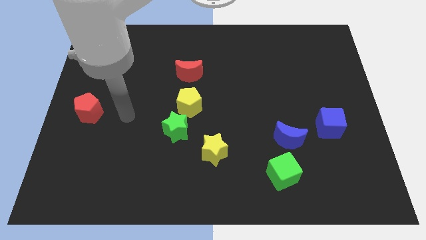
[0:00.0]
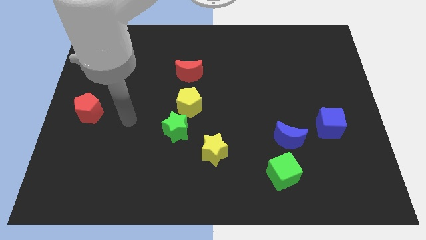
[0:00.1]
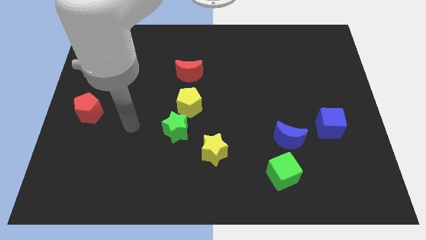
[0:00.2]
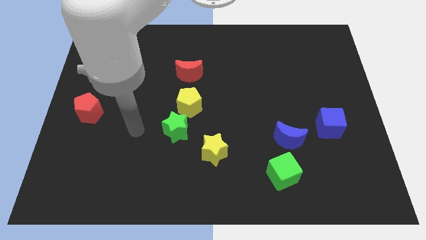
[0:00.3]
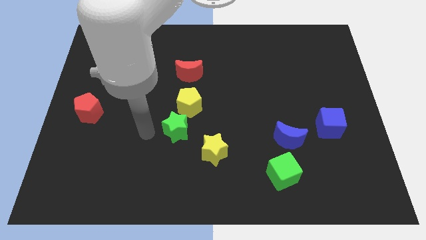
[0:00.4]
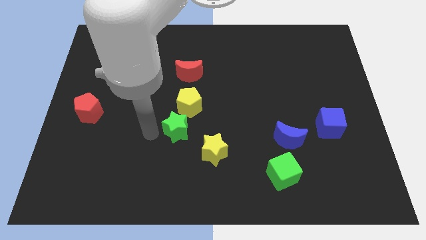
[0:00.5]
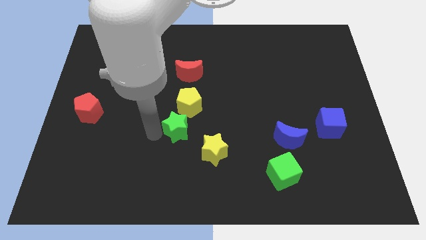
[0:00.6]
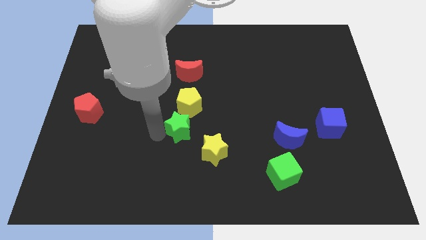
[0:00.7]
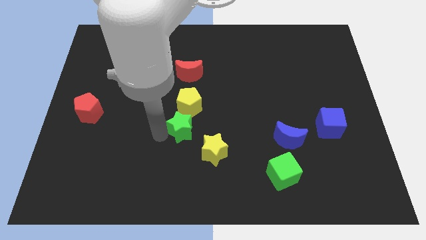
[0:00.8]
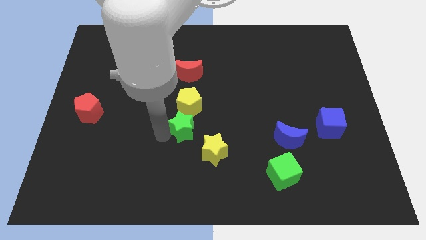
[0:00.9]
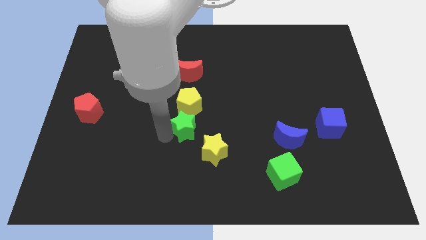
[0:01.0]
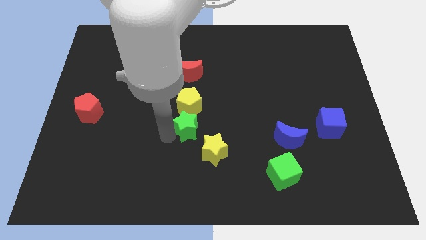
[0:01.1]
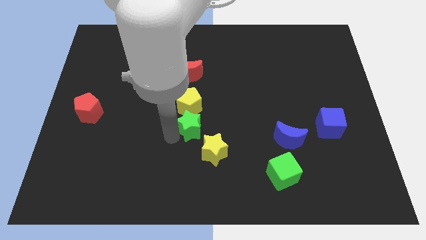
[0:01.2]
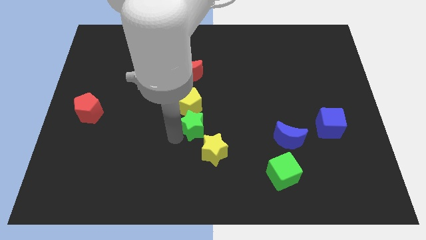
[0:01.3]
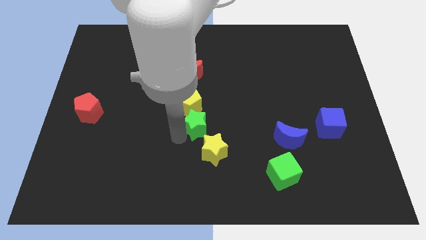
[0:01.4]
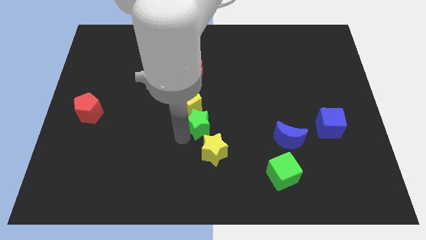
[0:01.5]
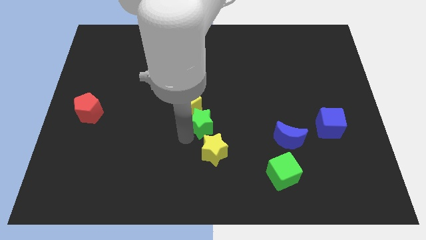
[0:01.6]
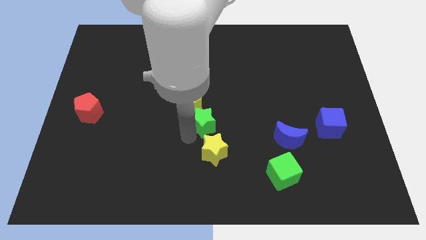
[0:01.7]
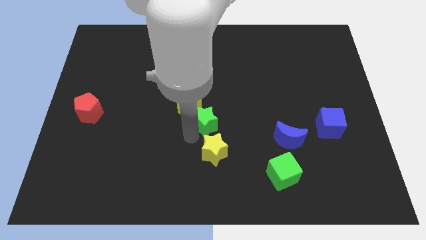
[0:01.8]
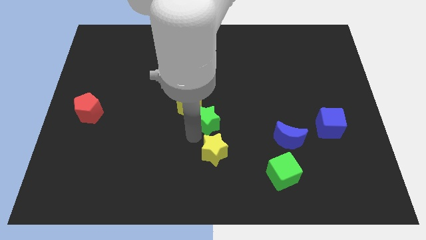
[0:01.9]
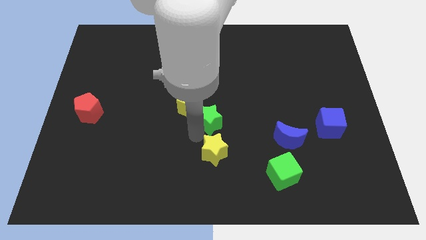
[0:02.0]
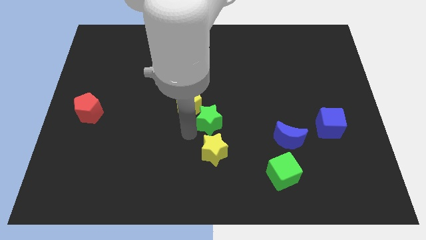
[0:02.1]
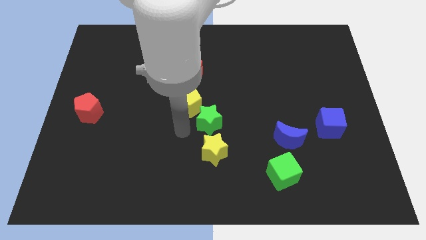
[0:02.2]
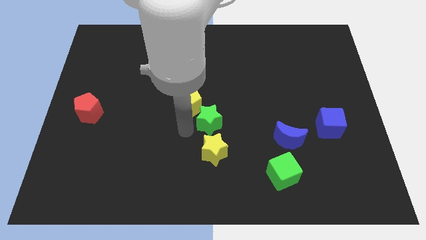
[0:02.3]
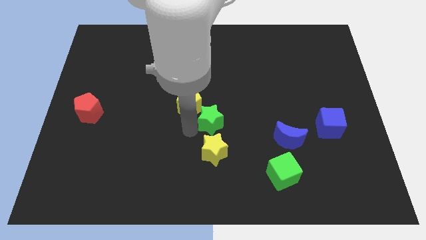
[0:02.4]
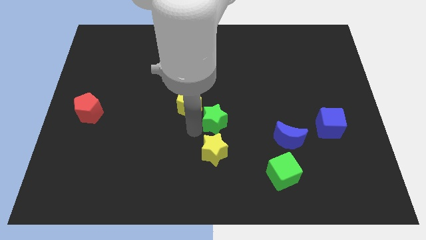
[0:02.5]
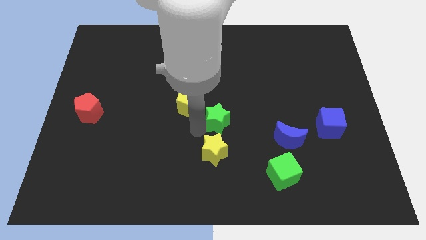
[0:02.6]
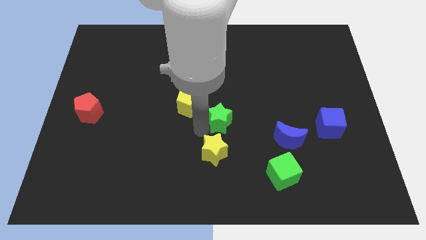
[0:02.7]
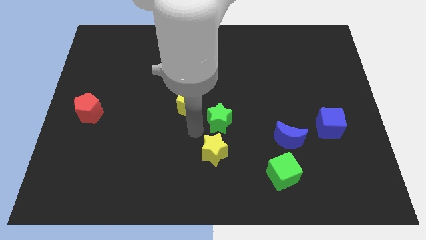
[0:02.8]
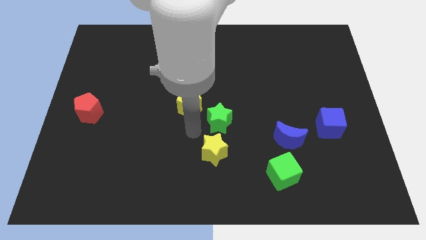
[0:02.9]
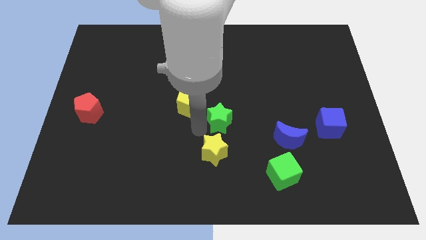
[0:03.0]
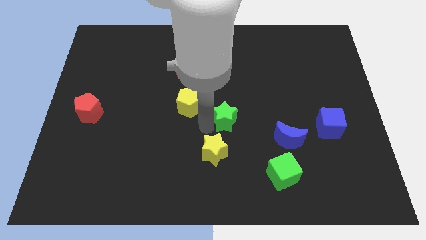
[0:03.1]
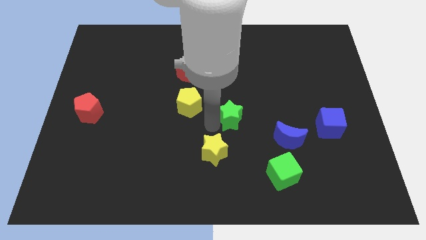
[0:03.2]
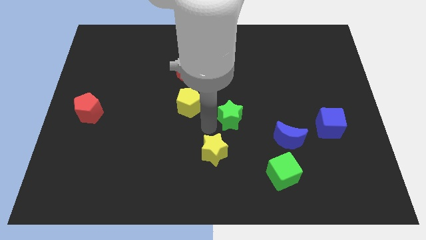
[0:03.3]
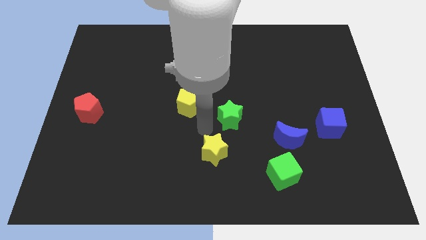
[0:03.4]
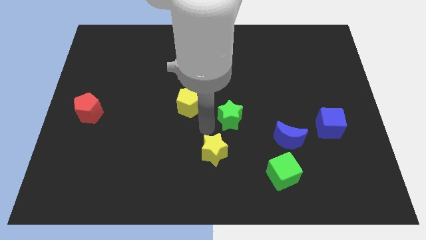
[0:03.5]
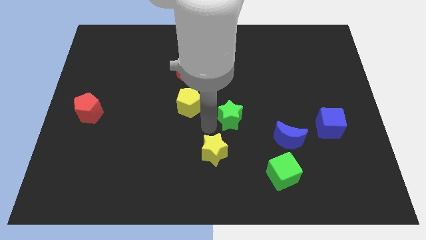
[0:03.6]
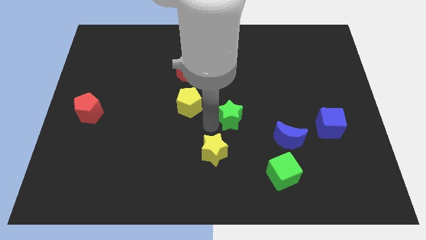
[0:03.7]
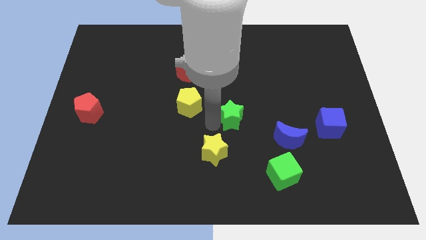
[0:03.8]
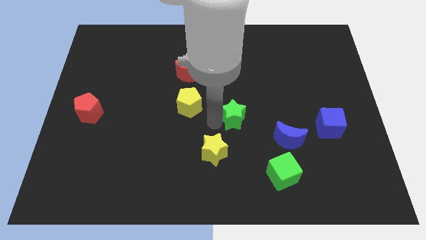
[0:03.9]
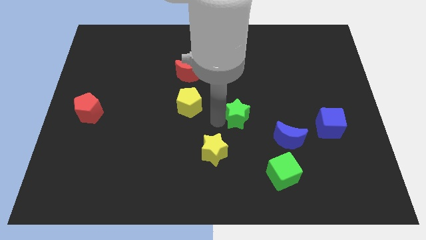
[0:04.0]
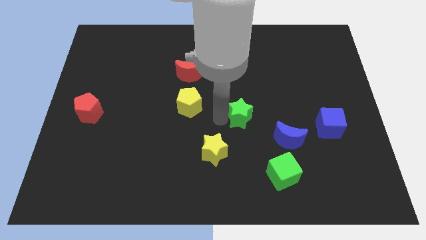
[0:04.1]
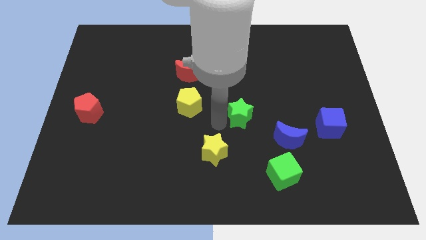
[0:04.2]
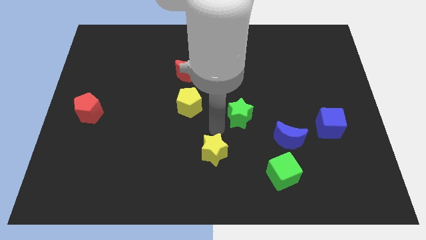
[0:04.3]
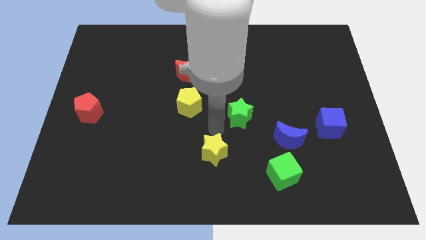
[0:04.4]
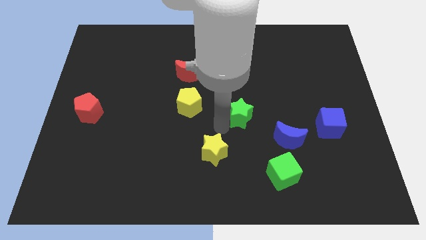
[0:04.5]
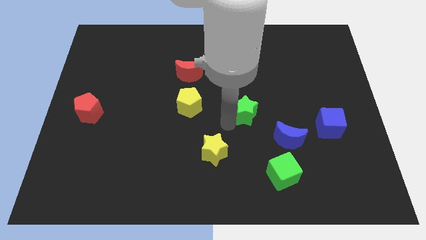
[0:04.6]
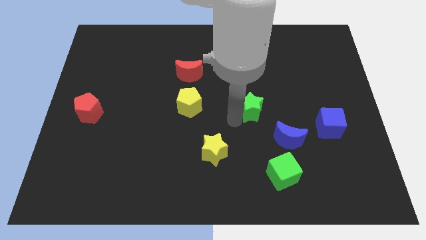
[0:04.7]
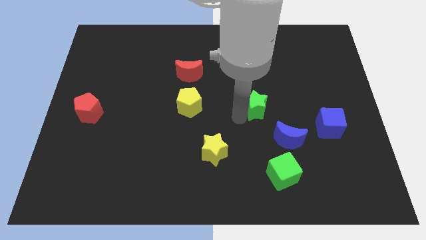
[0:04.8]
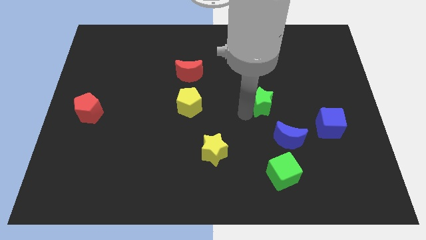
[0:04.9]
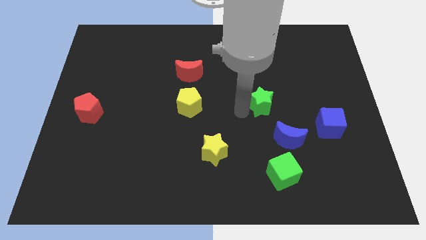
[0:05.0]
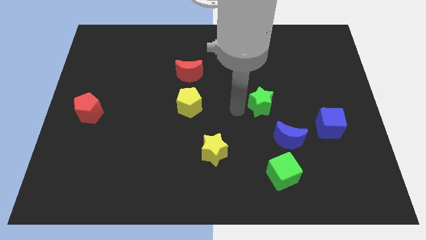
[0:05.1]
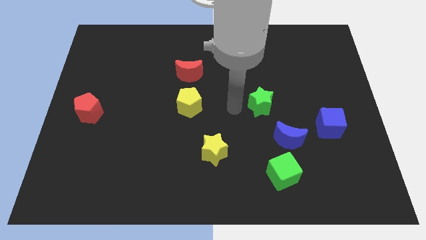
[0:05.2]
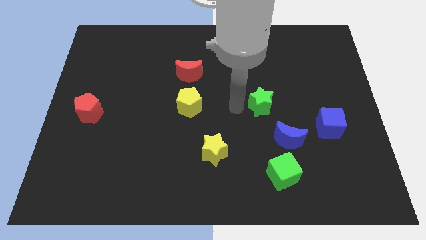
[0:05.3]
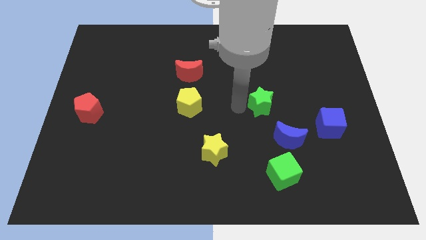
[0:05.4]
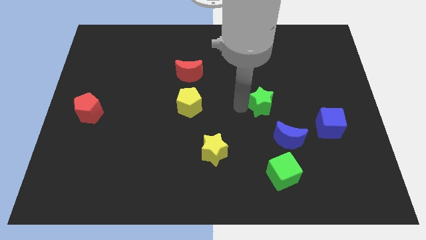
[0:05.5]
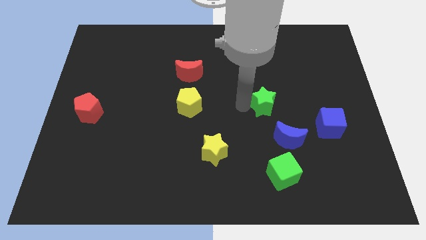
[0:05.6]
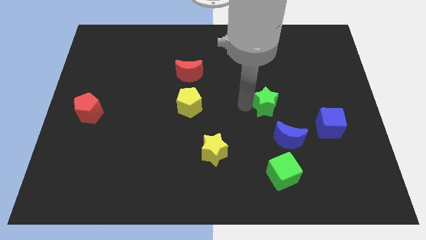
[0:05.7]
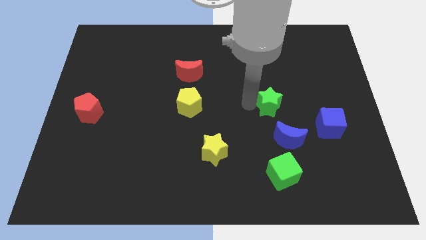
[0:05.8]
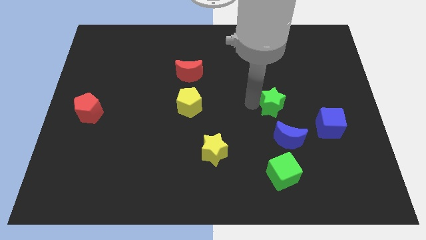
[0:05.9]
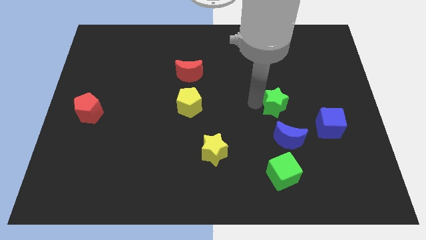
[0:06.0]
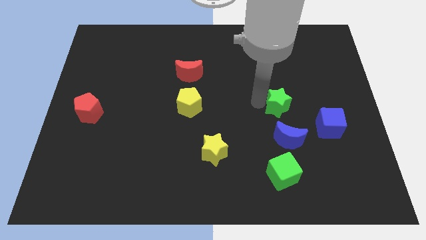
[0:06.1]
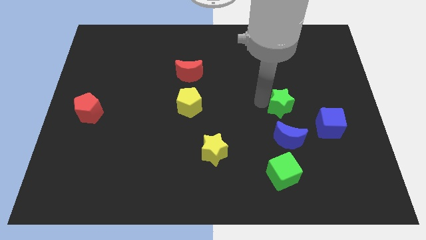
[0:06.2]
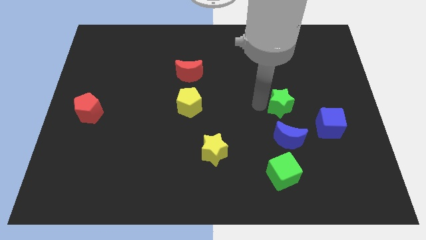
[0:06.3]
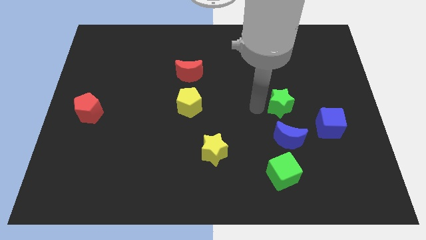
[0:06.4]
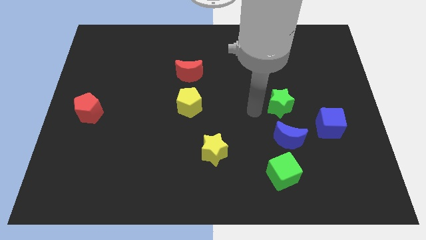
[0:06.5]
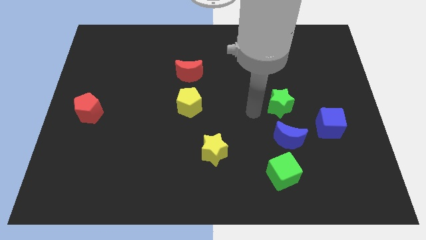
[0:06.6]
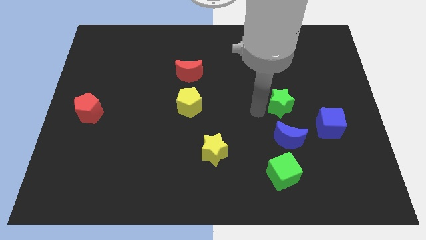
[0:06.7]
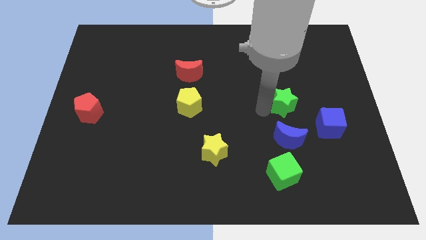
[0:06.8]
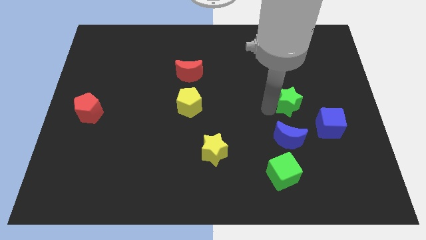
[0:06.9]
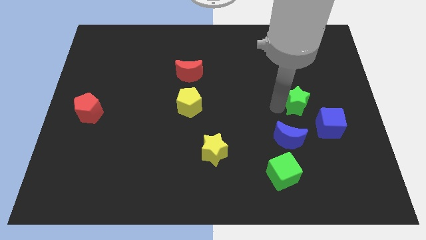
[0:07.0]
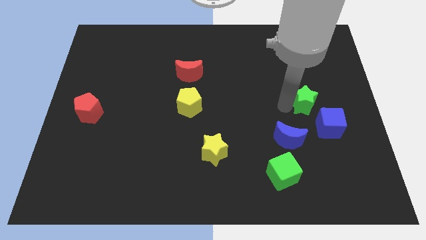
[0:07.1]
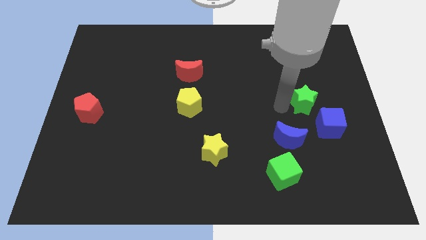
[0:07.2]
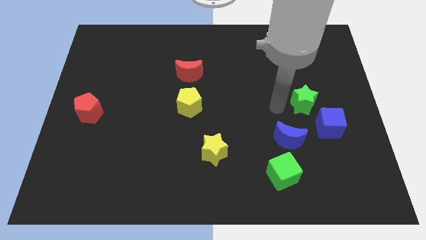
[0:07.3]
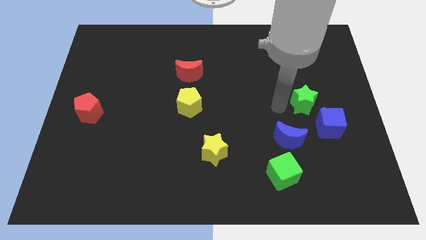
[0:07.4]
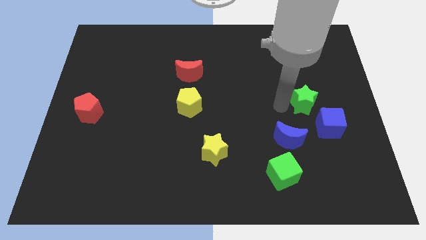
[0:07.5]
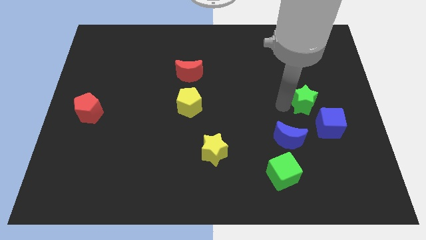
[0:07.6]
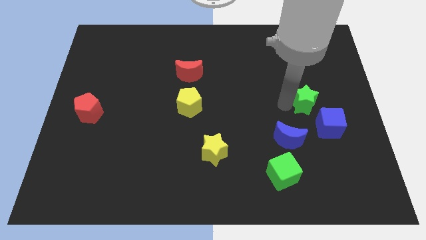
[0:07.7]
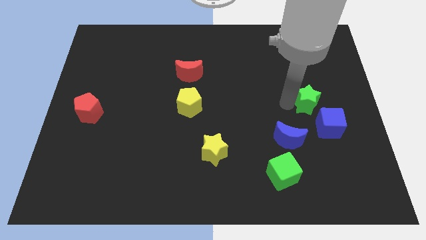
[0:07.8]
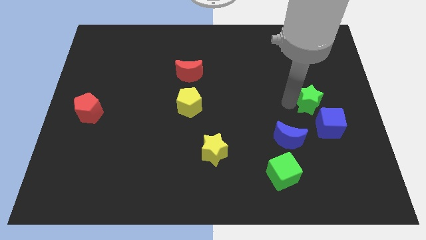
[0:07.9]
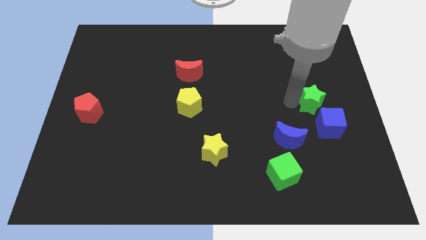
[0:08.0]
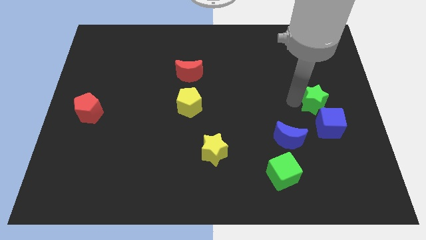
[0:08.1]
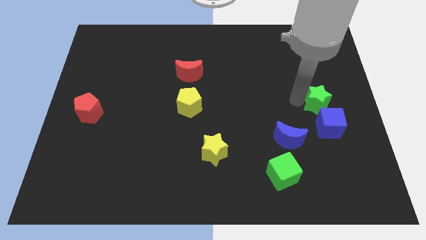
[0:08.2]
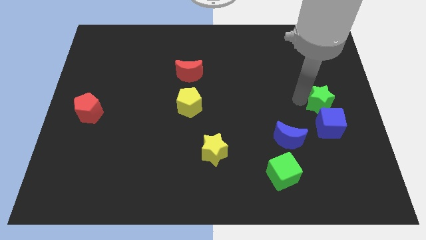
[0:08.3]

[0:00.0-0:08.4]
push the green star to the center right
